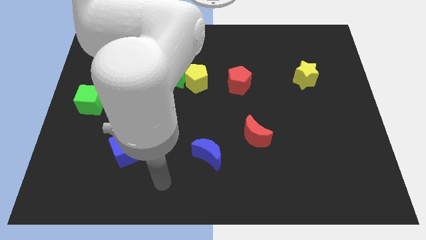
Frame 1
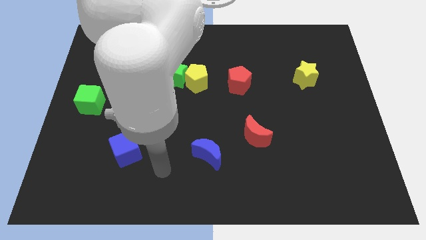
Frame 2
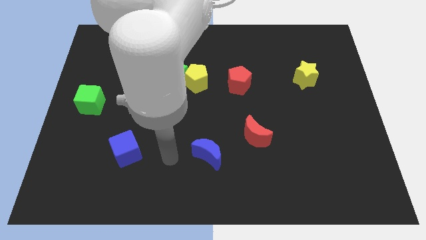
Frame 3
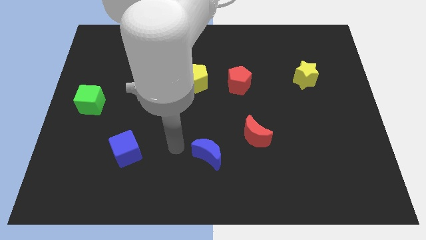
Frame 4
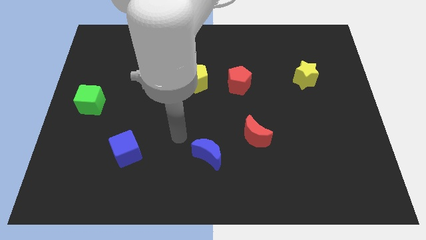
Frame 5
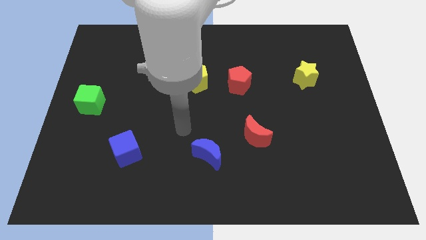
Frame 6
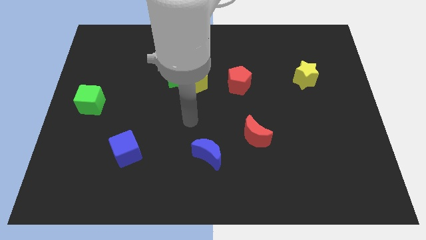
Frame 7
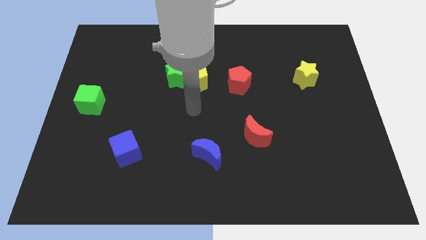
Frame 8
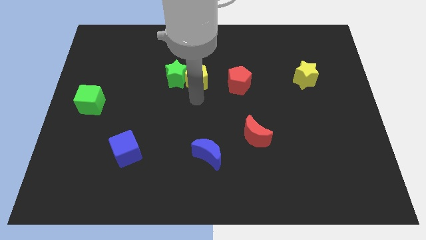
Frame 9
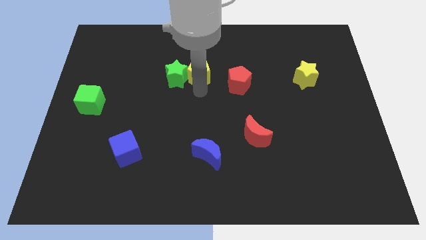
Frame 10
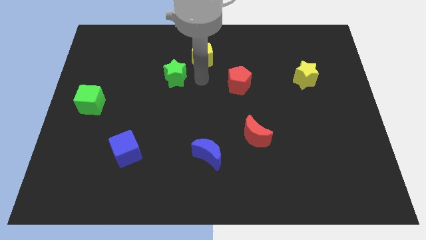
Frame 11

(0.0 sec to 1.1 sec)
move the green star away from the yellow pentagon

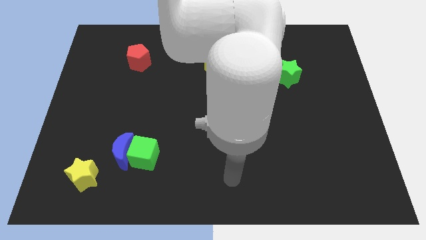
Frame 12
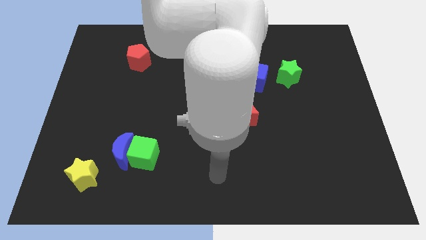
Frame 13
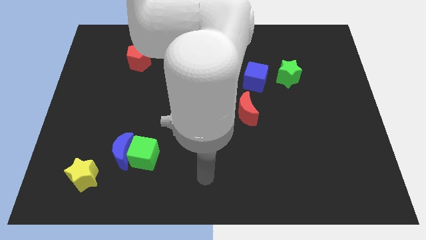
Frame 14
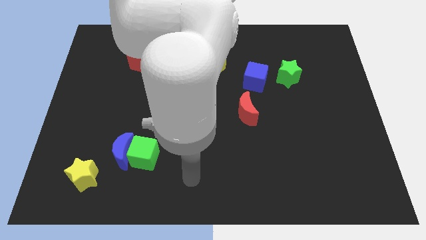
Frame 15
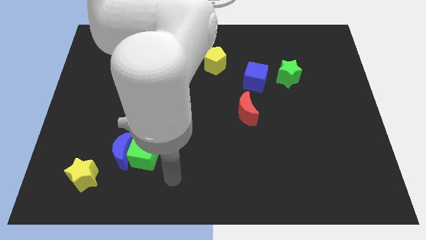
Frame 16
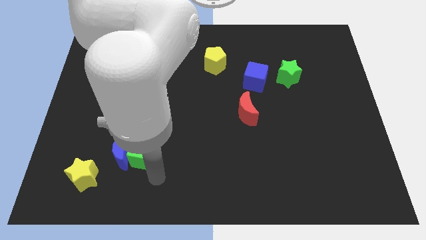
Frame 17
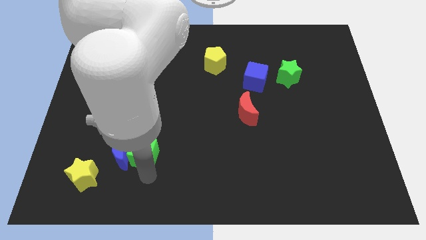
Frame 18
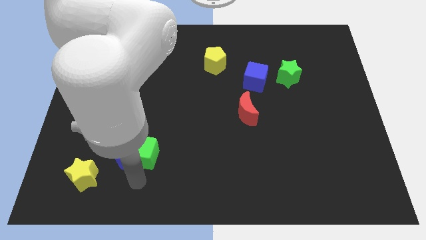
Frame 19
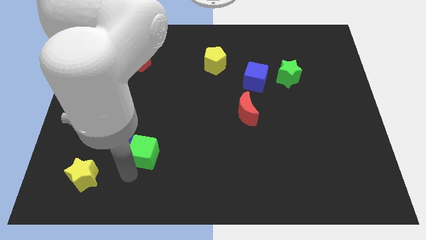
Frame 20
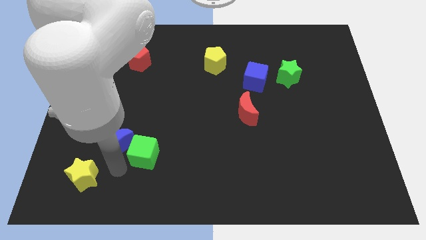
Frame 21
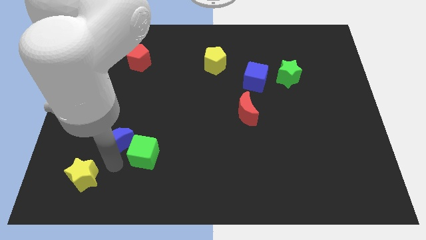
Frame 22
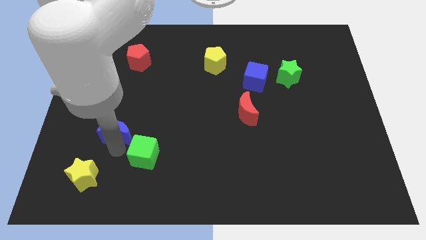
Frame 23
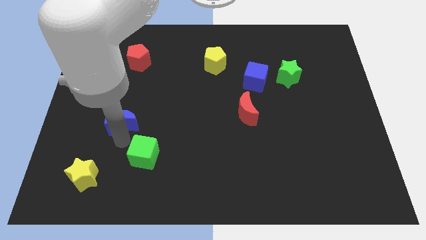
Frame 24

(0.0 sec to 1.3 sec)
pull the green cube apart from the blue moon

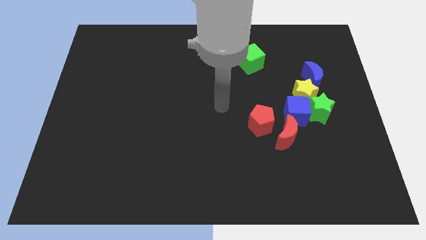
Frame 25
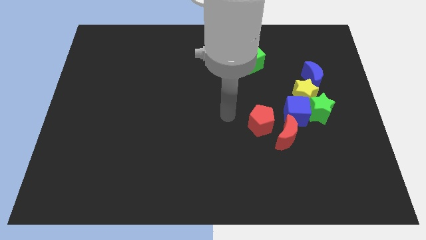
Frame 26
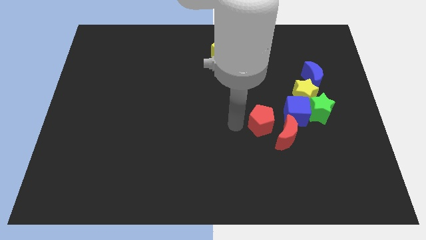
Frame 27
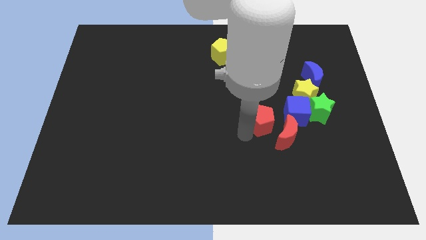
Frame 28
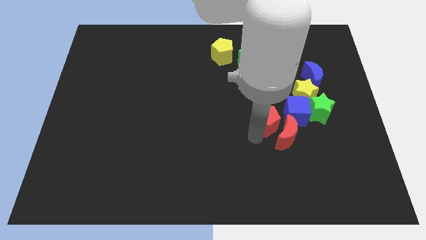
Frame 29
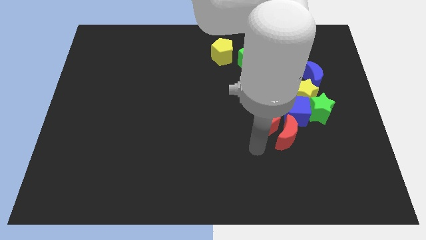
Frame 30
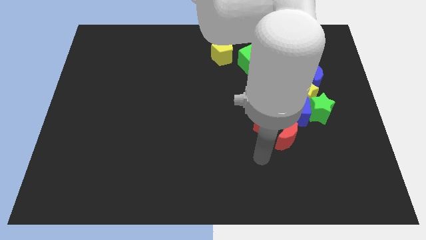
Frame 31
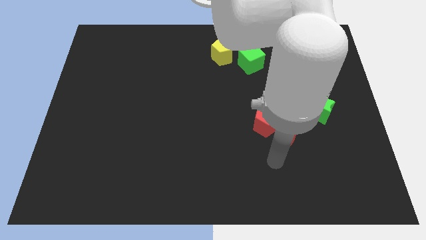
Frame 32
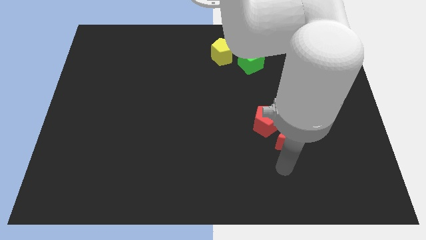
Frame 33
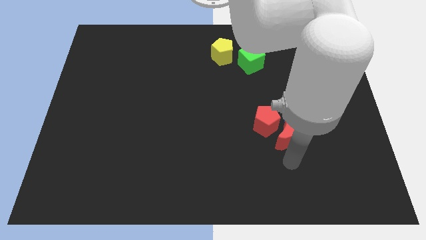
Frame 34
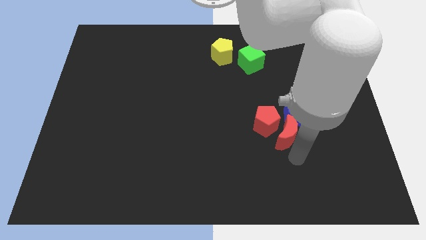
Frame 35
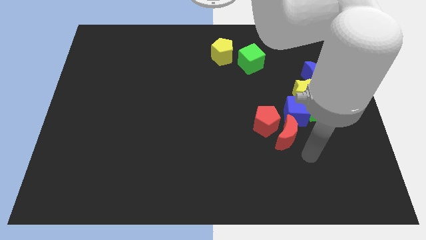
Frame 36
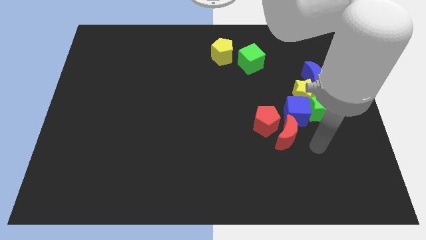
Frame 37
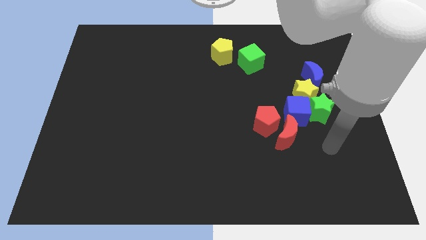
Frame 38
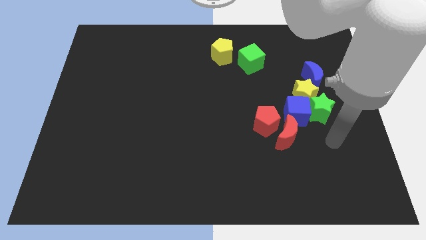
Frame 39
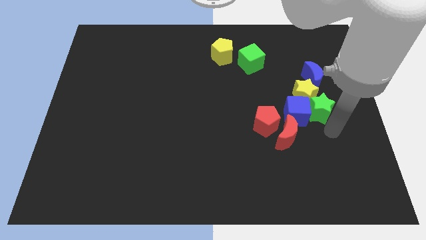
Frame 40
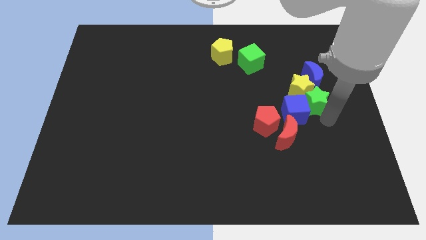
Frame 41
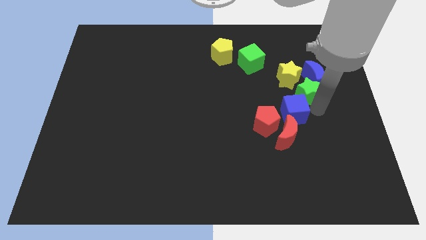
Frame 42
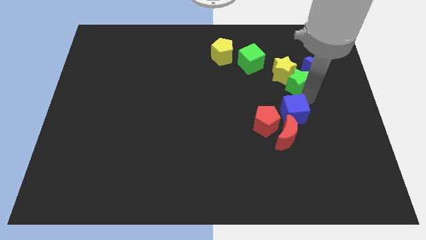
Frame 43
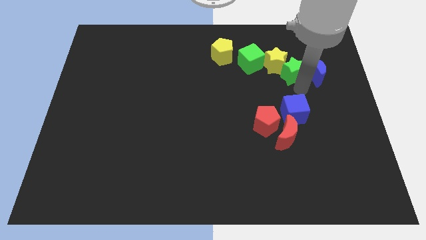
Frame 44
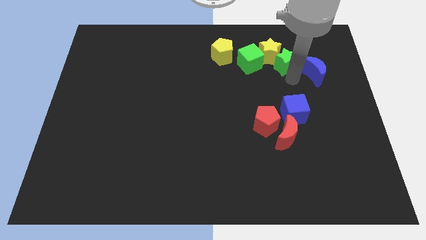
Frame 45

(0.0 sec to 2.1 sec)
move the yellow star away from the clump

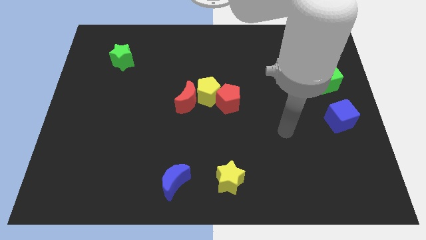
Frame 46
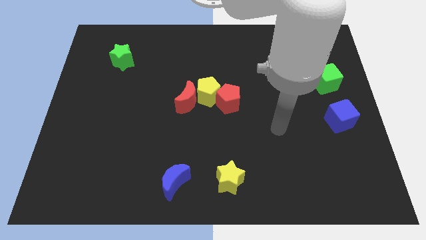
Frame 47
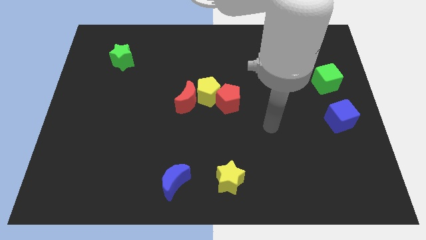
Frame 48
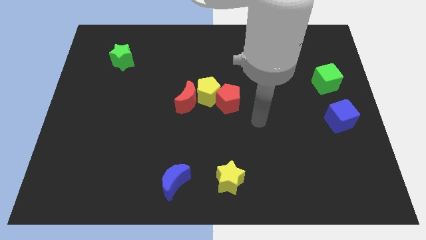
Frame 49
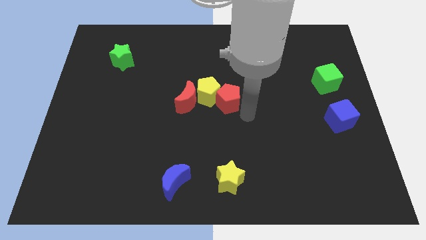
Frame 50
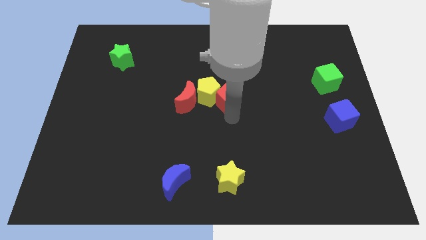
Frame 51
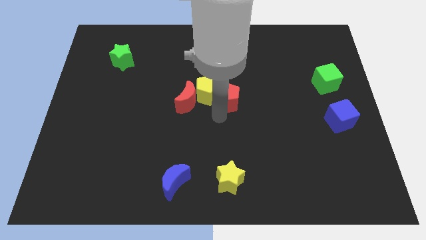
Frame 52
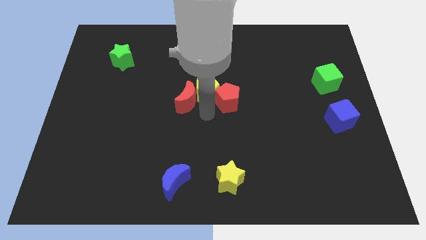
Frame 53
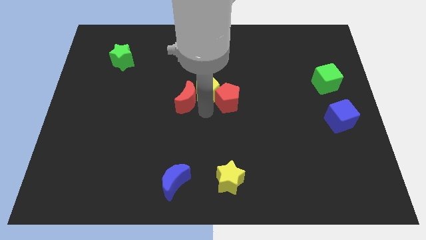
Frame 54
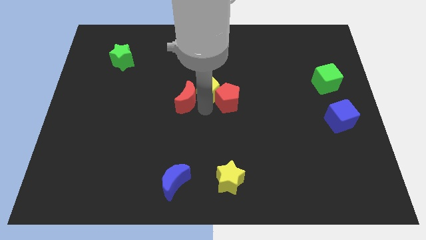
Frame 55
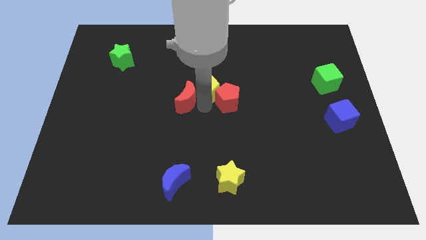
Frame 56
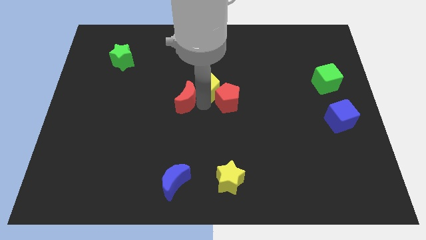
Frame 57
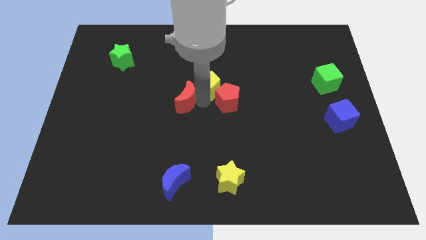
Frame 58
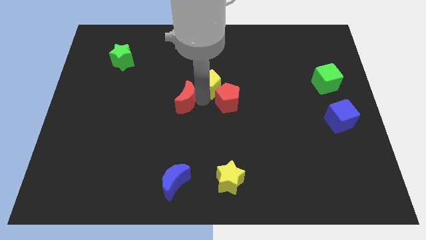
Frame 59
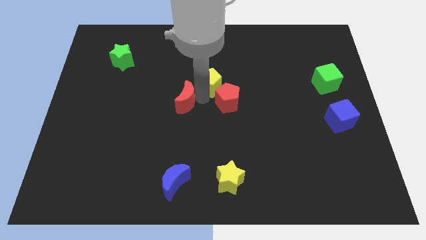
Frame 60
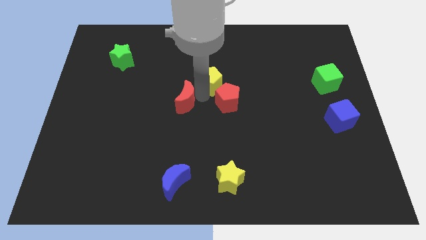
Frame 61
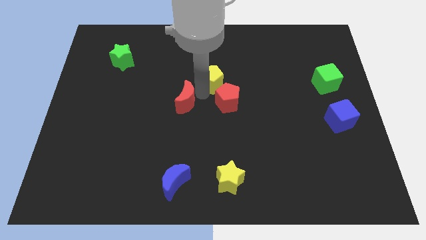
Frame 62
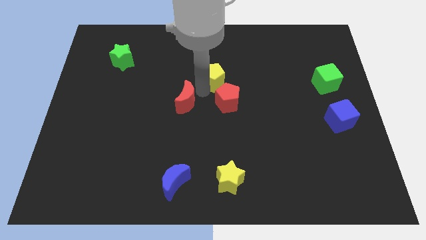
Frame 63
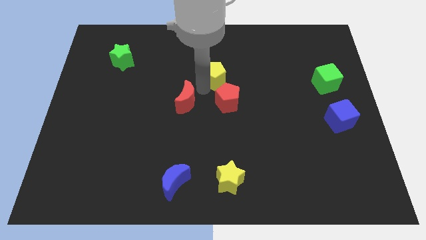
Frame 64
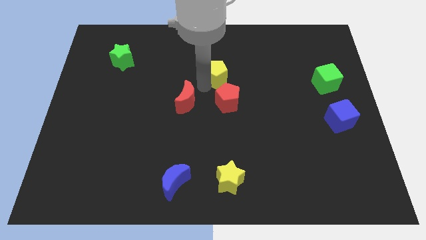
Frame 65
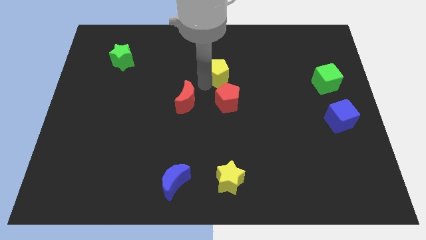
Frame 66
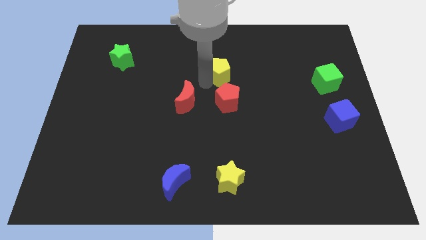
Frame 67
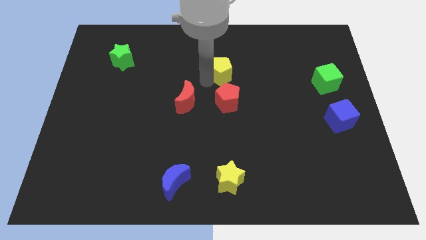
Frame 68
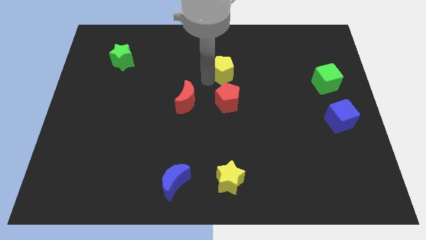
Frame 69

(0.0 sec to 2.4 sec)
move the yellow pentagon away from the red moon and red pentagon

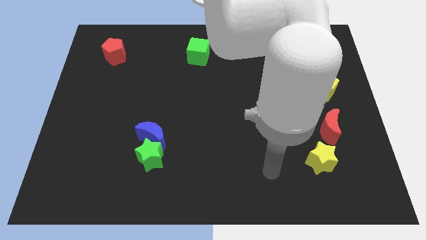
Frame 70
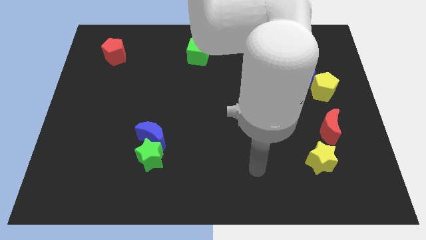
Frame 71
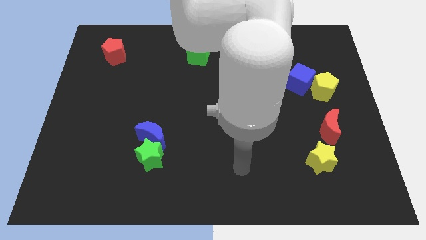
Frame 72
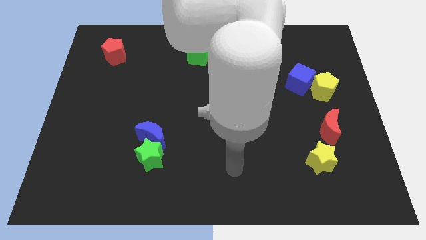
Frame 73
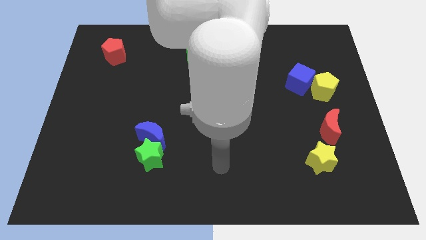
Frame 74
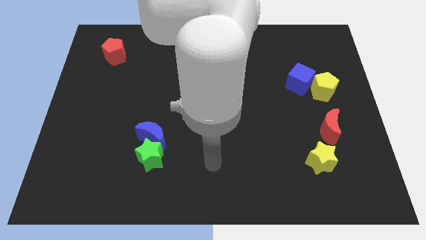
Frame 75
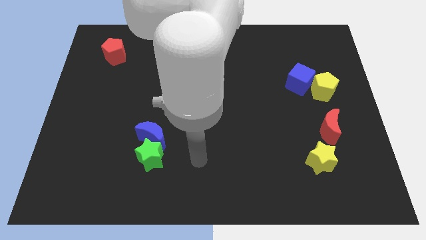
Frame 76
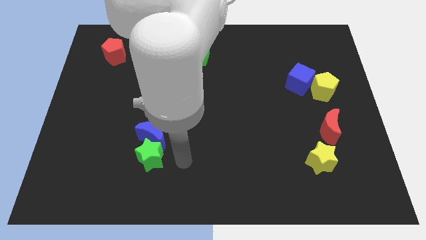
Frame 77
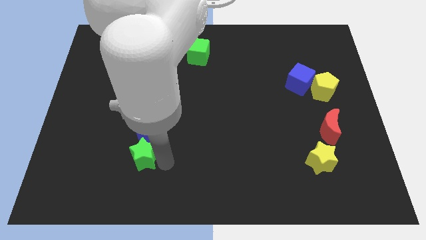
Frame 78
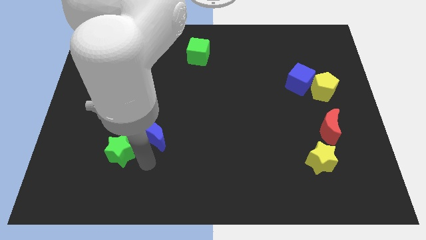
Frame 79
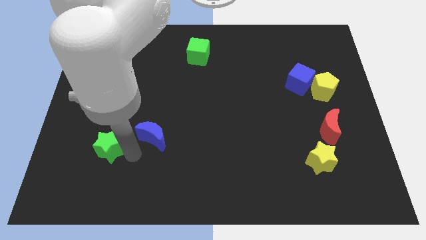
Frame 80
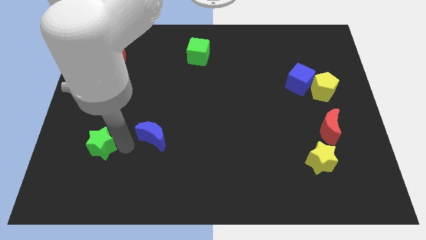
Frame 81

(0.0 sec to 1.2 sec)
move the blue moon away from the green star

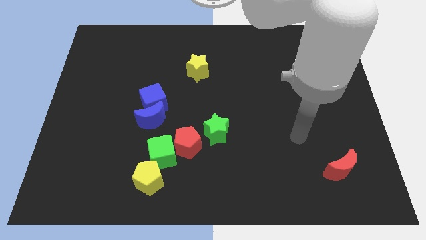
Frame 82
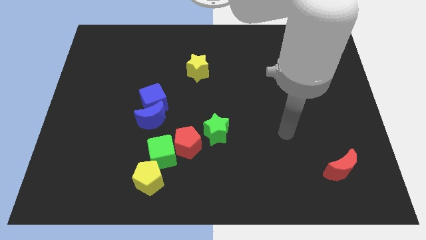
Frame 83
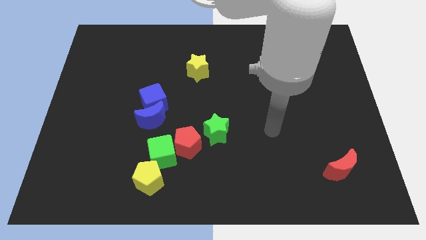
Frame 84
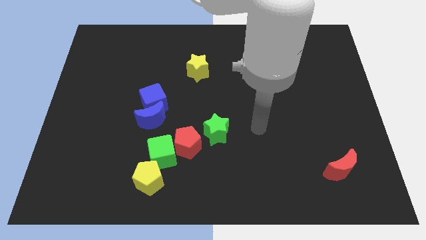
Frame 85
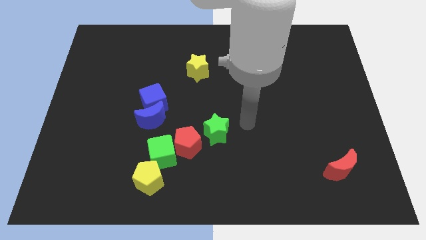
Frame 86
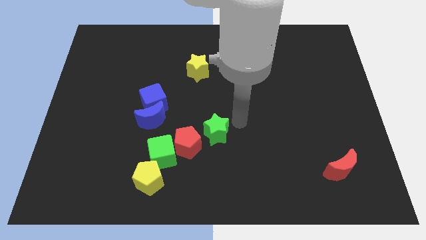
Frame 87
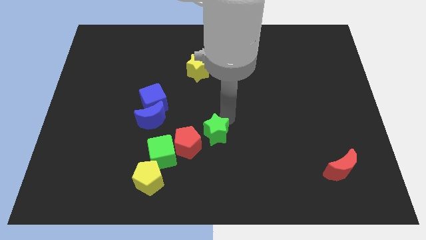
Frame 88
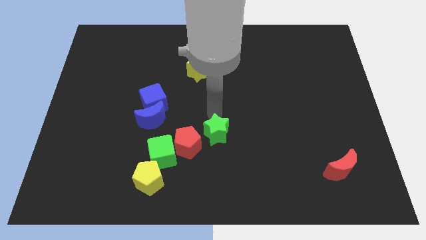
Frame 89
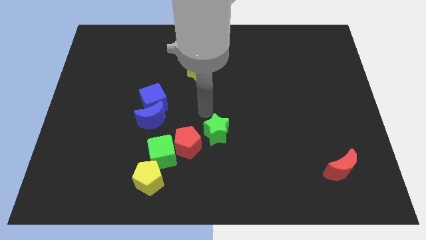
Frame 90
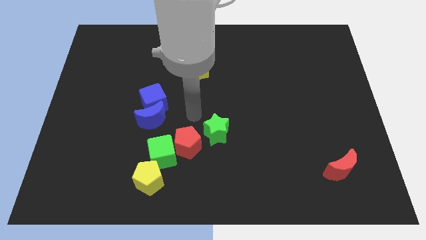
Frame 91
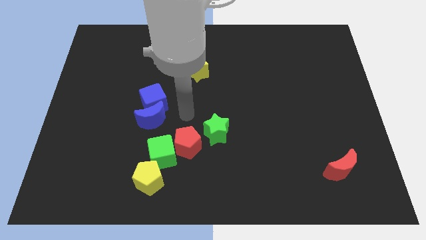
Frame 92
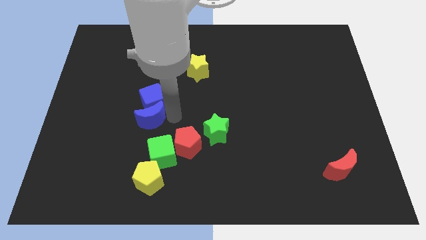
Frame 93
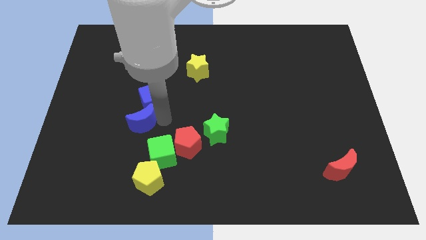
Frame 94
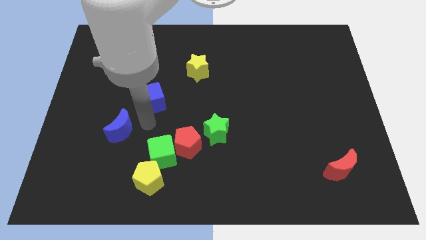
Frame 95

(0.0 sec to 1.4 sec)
separate the blue cube from the blue moon
